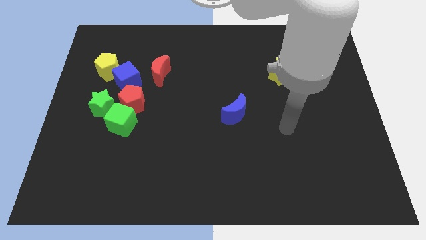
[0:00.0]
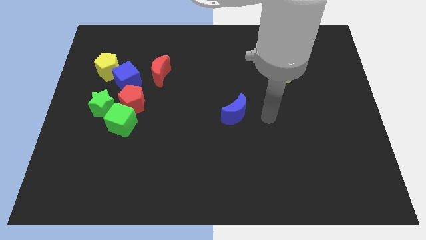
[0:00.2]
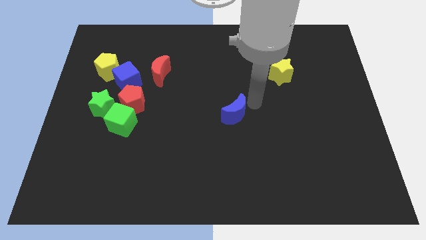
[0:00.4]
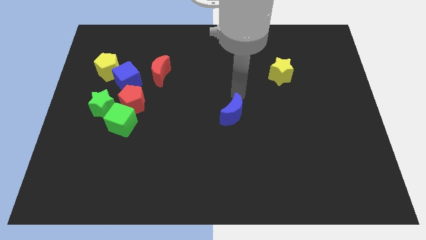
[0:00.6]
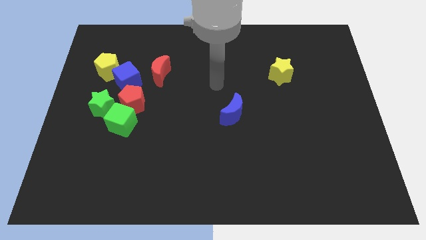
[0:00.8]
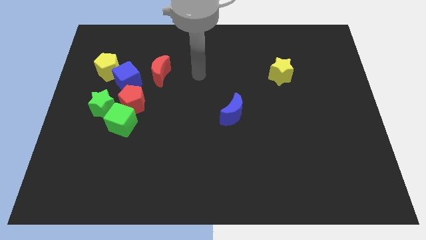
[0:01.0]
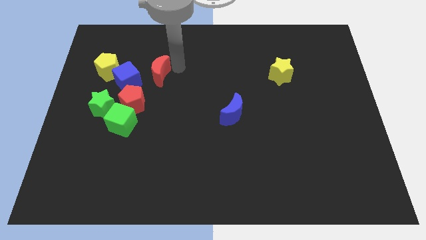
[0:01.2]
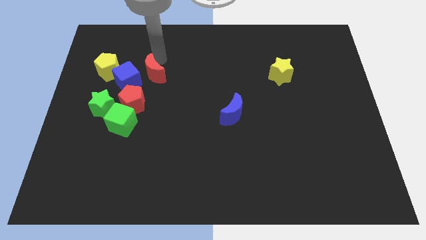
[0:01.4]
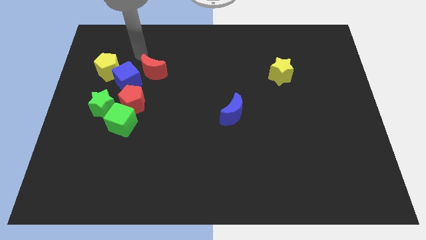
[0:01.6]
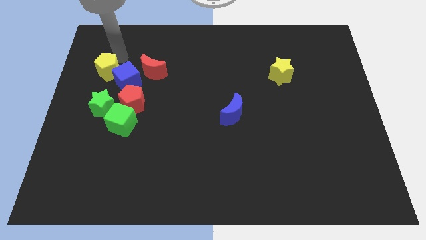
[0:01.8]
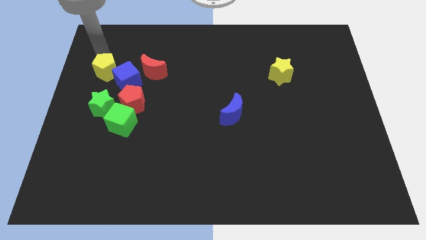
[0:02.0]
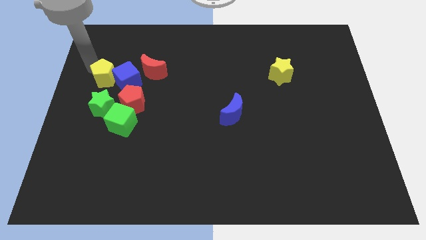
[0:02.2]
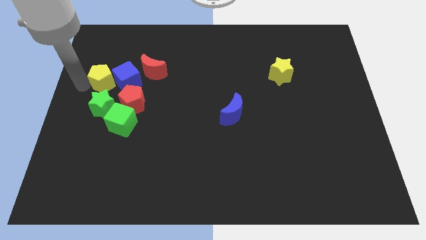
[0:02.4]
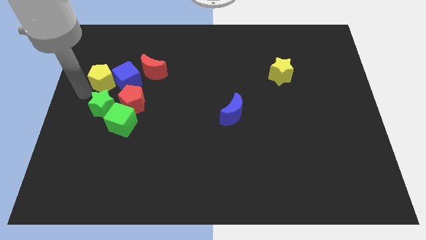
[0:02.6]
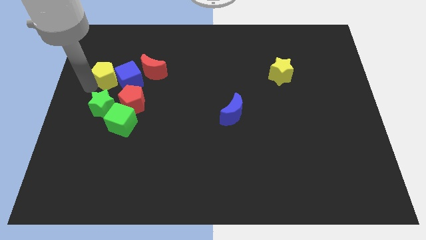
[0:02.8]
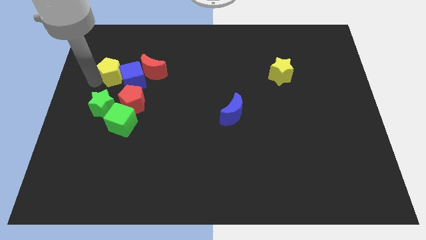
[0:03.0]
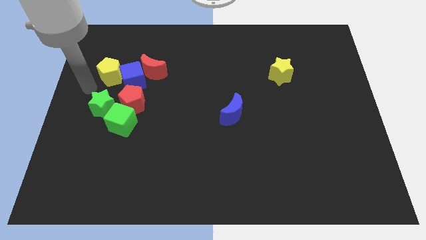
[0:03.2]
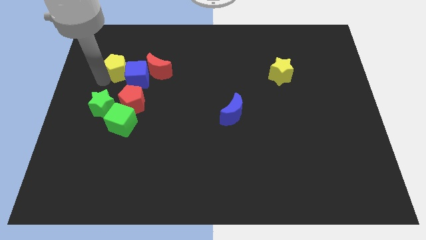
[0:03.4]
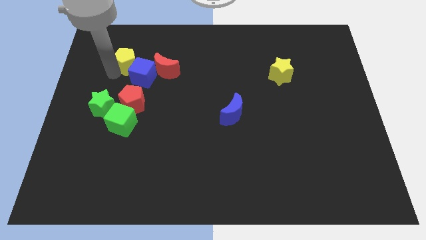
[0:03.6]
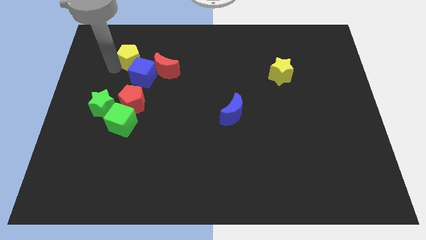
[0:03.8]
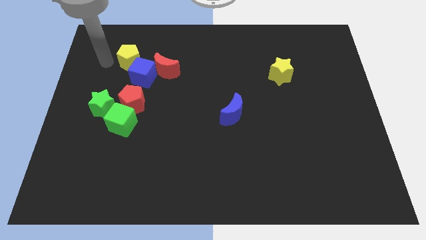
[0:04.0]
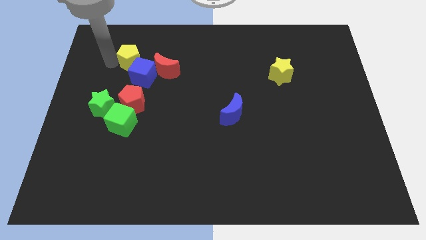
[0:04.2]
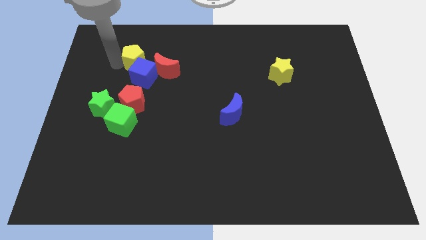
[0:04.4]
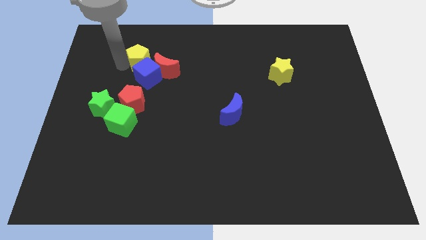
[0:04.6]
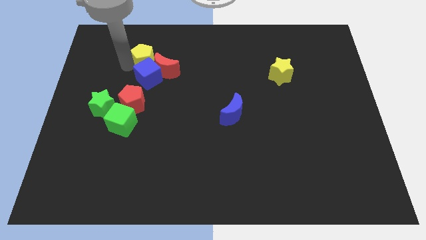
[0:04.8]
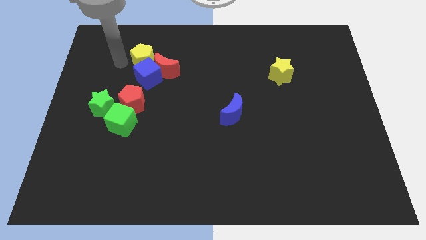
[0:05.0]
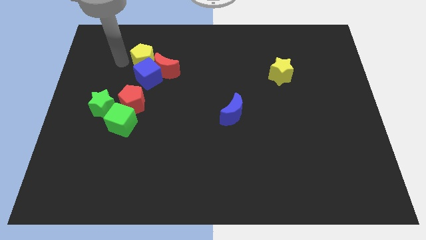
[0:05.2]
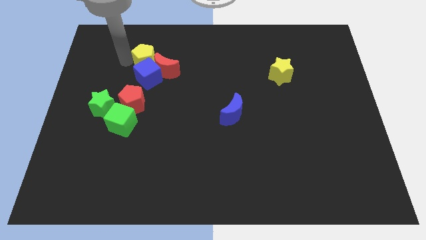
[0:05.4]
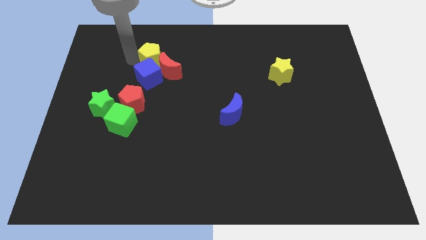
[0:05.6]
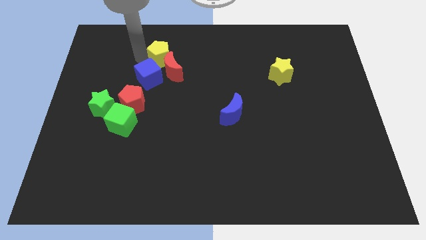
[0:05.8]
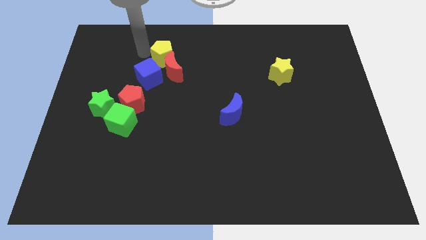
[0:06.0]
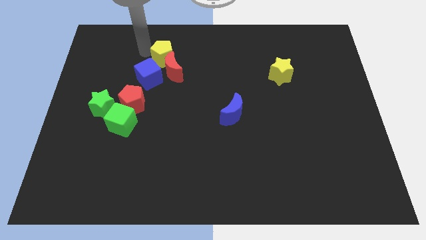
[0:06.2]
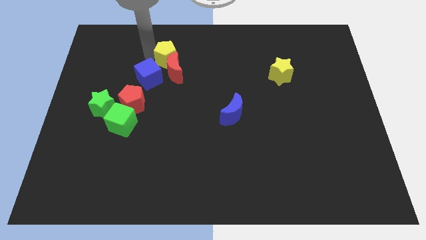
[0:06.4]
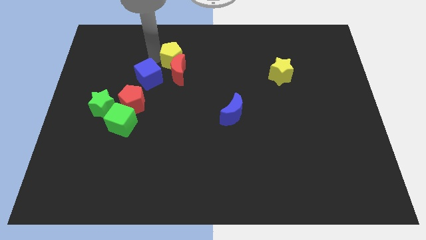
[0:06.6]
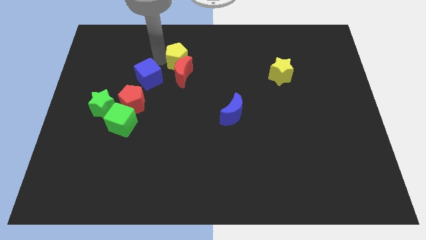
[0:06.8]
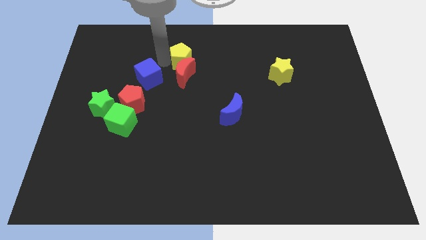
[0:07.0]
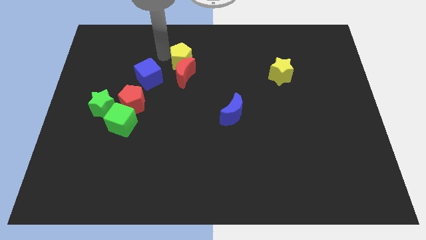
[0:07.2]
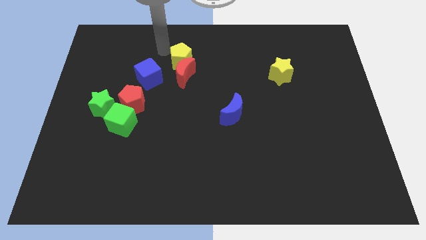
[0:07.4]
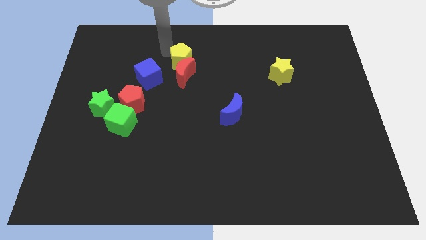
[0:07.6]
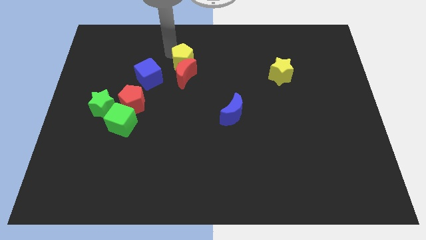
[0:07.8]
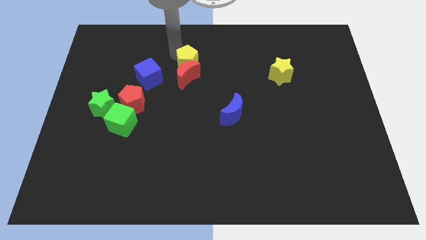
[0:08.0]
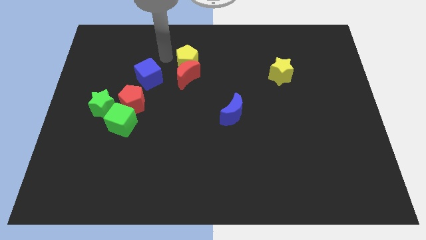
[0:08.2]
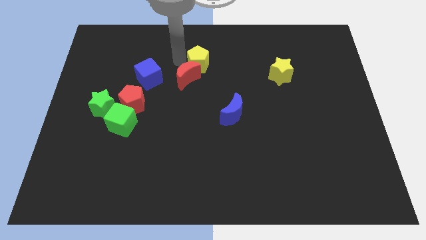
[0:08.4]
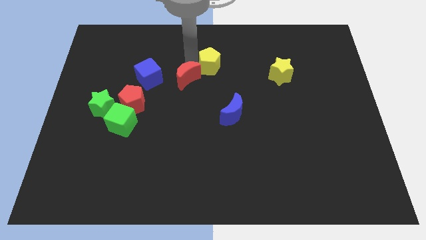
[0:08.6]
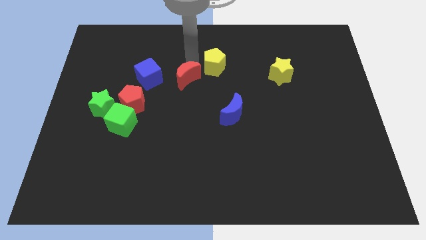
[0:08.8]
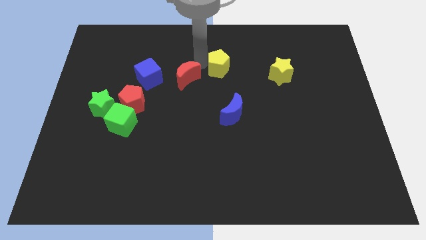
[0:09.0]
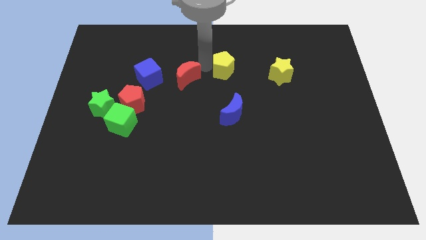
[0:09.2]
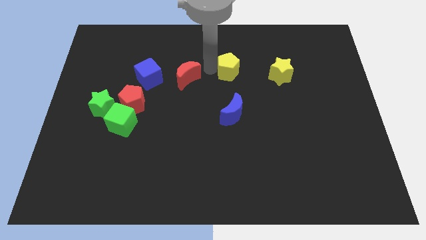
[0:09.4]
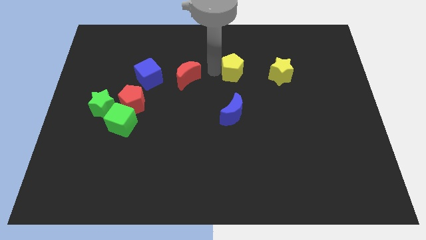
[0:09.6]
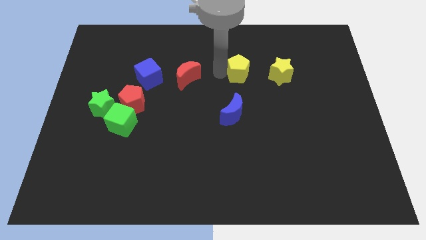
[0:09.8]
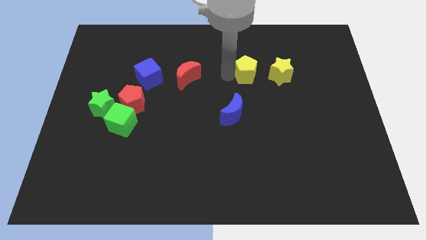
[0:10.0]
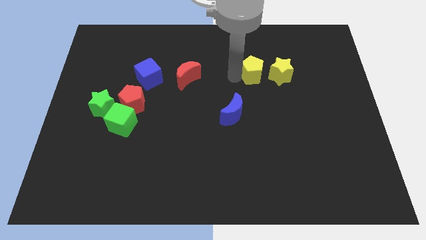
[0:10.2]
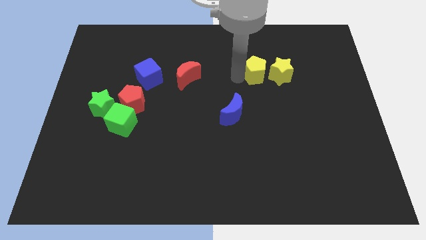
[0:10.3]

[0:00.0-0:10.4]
push the yellow pentagon towards the yellow star

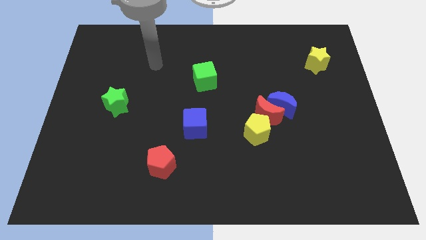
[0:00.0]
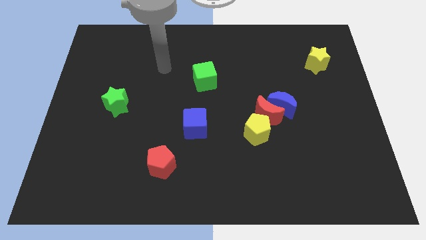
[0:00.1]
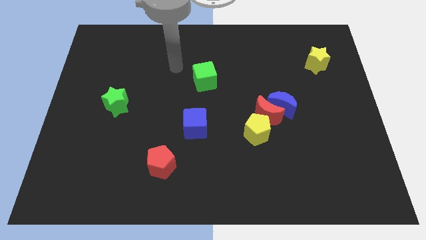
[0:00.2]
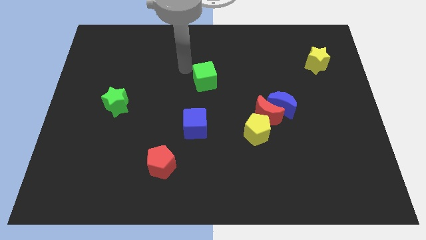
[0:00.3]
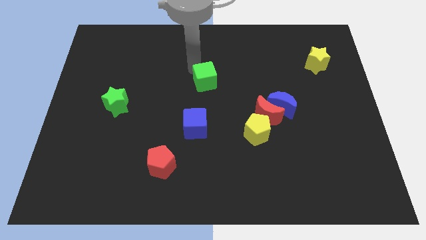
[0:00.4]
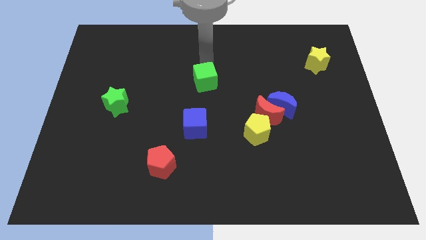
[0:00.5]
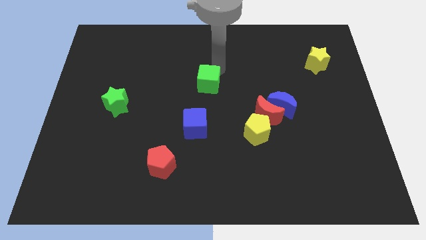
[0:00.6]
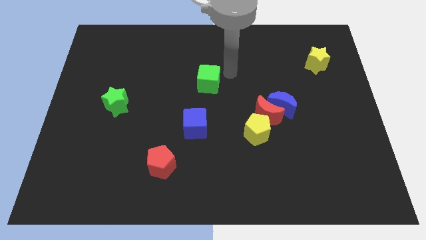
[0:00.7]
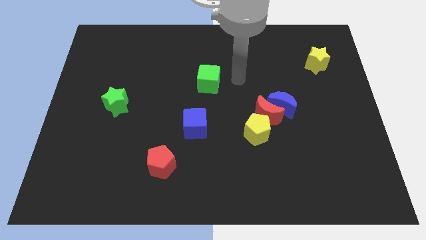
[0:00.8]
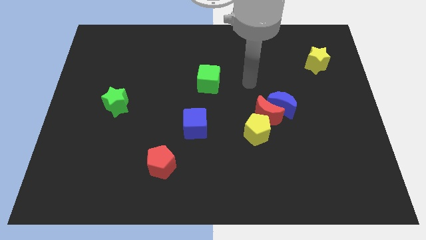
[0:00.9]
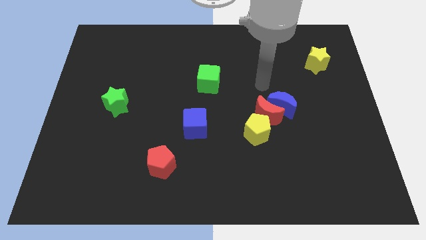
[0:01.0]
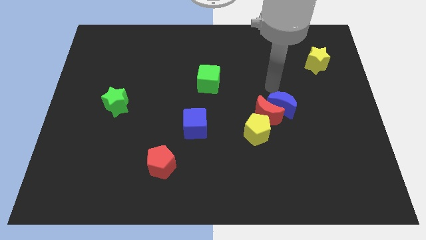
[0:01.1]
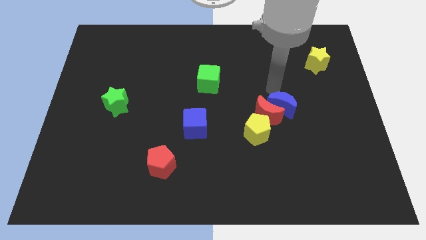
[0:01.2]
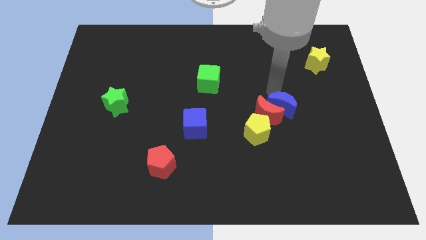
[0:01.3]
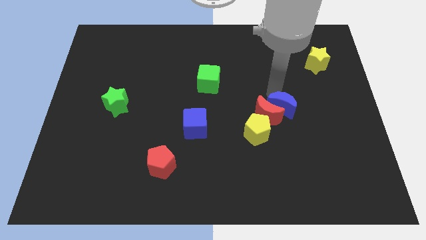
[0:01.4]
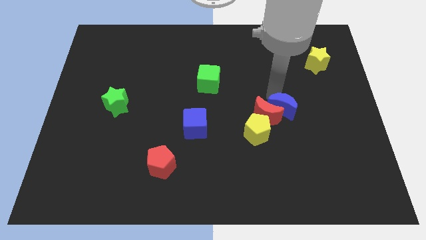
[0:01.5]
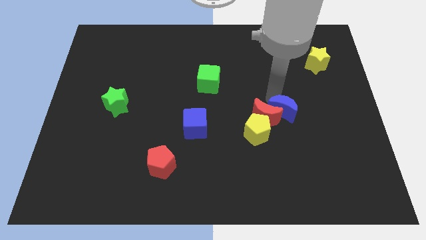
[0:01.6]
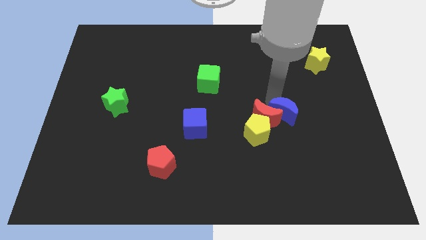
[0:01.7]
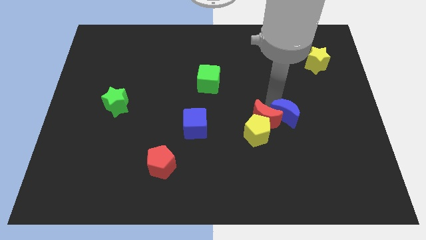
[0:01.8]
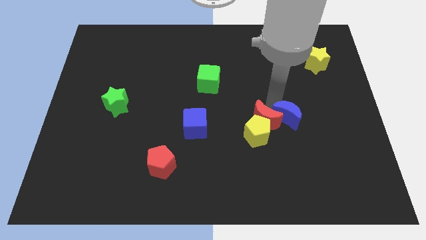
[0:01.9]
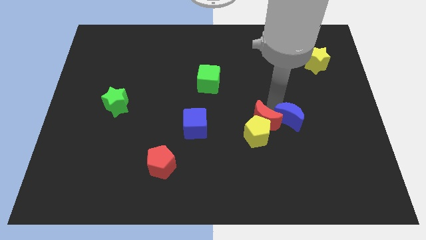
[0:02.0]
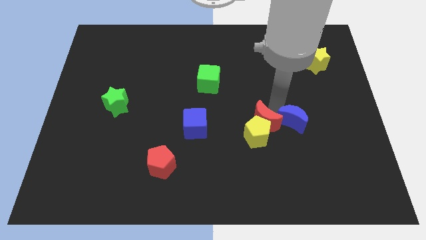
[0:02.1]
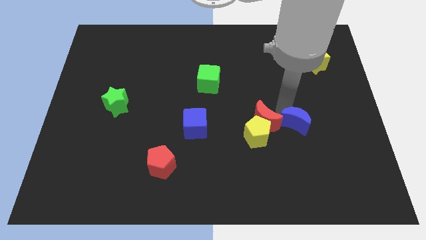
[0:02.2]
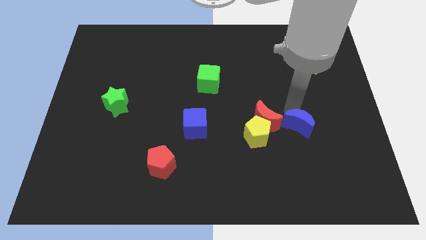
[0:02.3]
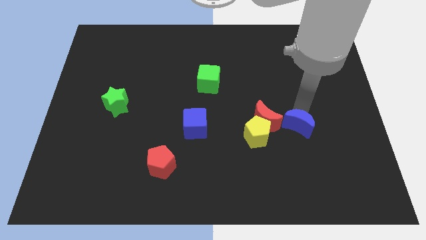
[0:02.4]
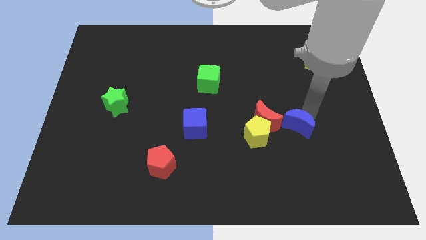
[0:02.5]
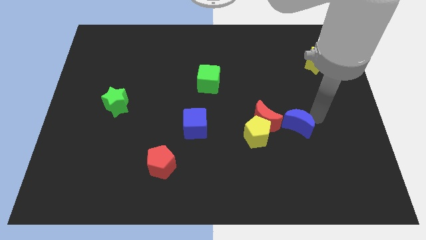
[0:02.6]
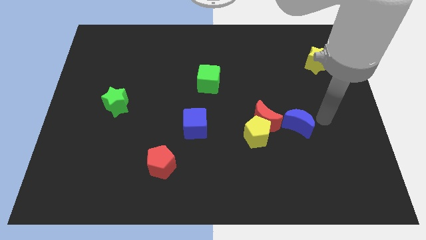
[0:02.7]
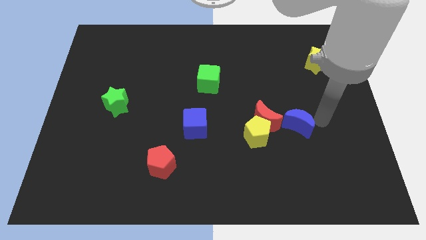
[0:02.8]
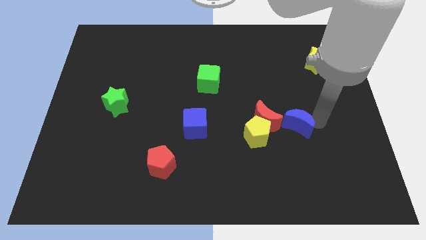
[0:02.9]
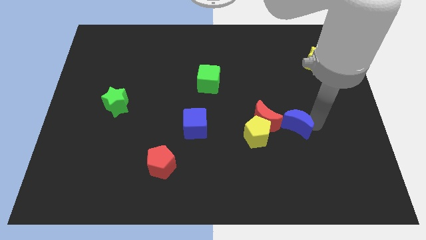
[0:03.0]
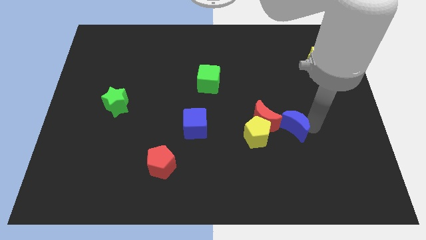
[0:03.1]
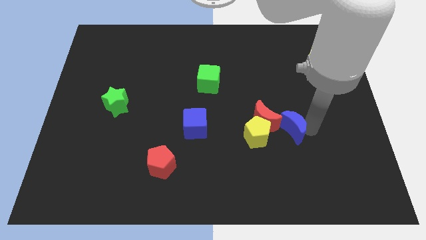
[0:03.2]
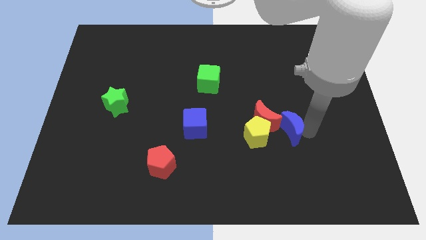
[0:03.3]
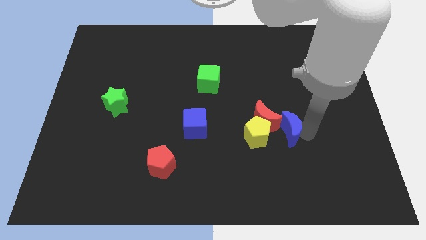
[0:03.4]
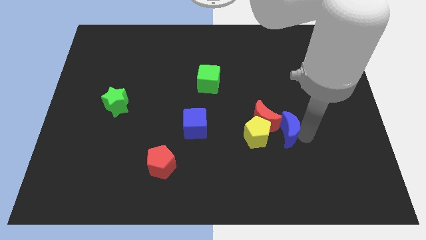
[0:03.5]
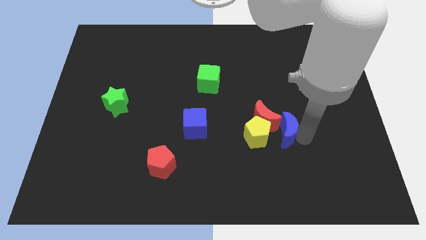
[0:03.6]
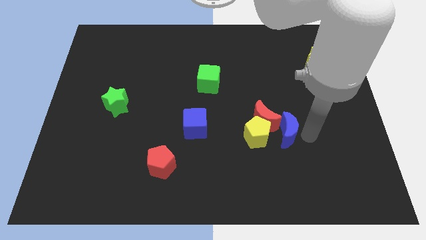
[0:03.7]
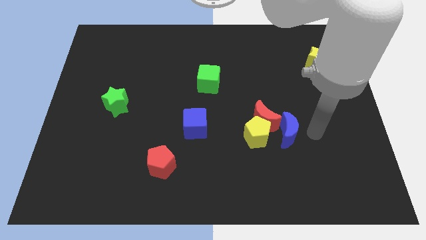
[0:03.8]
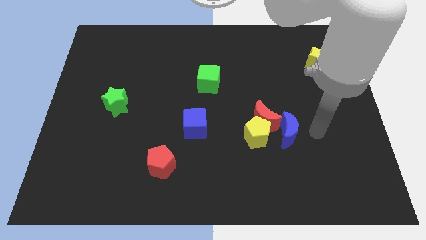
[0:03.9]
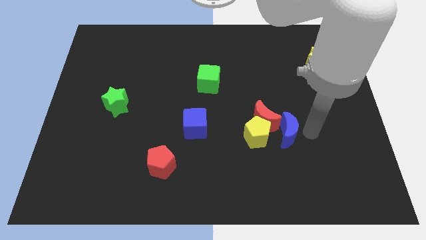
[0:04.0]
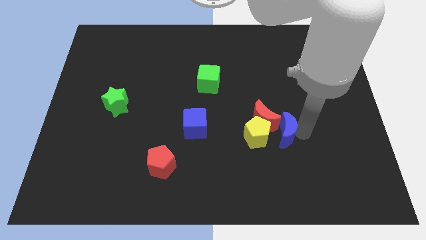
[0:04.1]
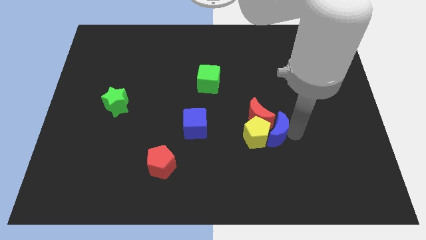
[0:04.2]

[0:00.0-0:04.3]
move the blue moon to the yellow pentagon
